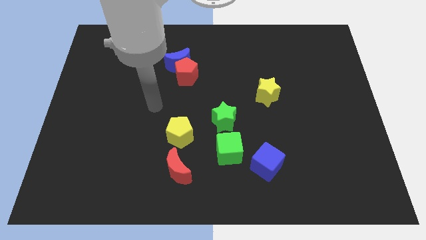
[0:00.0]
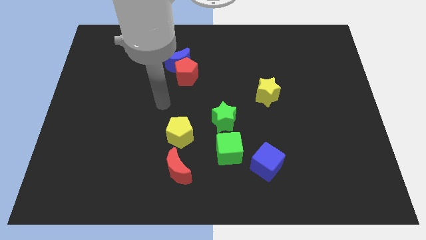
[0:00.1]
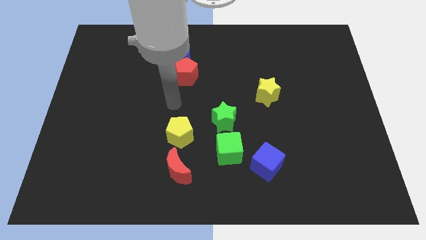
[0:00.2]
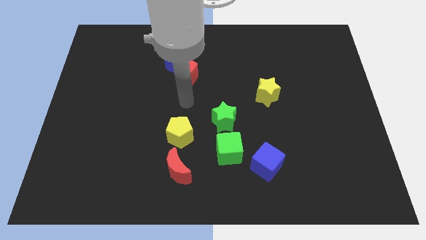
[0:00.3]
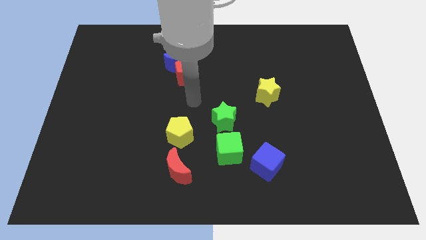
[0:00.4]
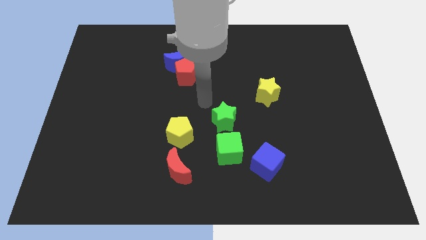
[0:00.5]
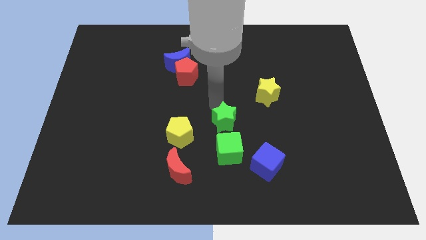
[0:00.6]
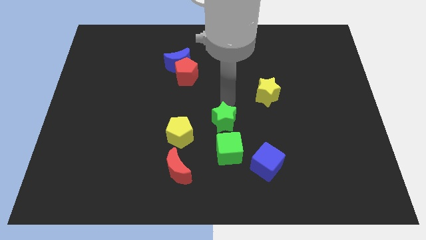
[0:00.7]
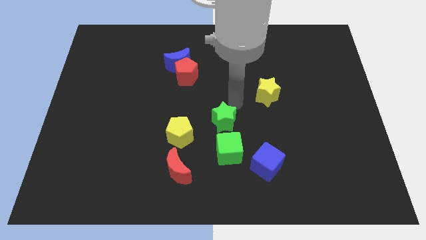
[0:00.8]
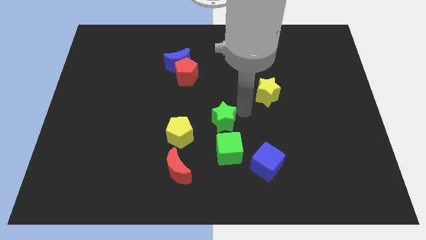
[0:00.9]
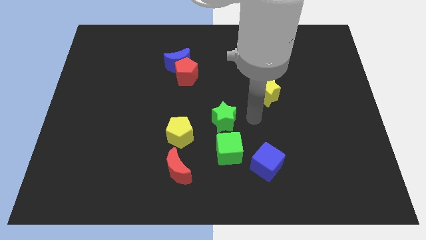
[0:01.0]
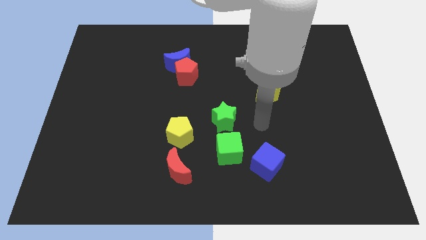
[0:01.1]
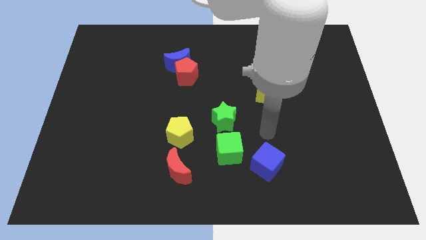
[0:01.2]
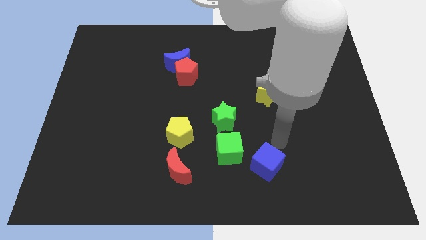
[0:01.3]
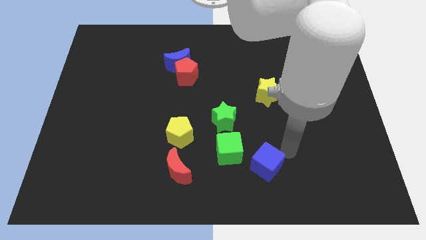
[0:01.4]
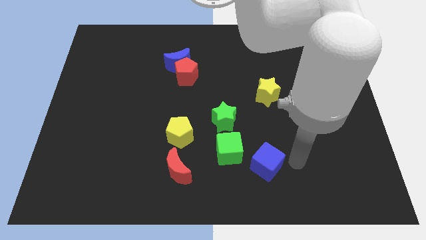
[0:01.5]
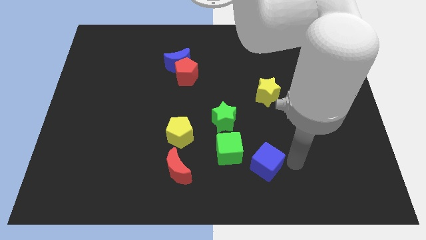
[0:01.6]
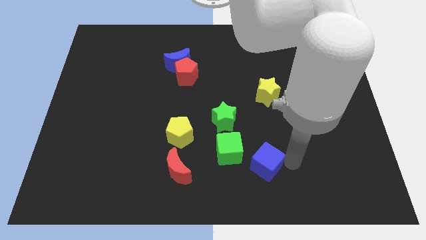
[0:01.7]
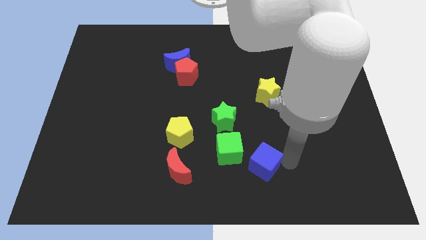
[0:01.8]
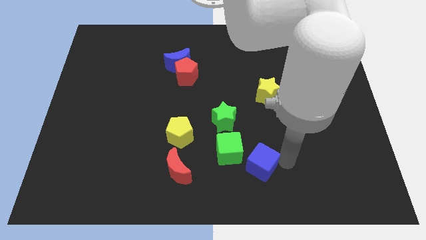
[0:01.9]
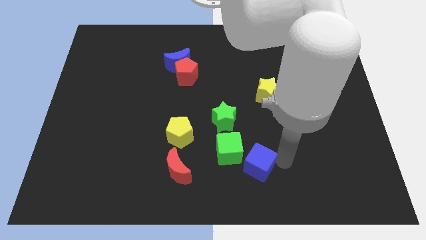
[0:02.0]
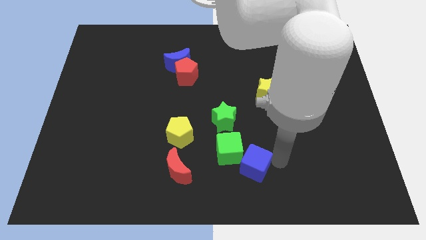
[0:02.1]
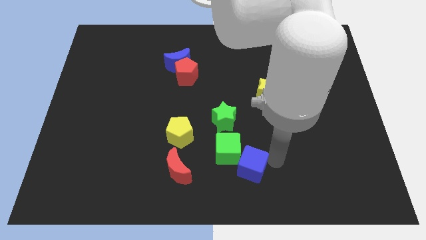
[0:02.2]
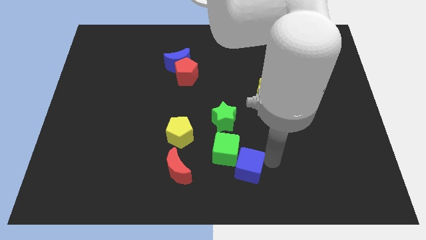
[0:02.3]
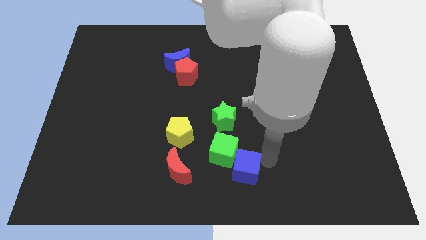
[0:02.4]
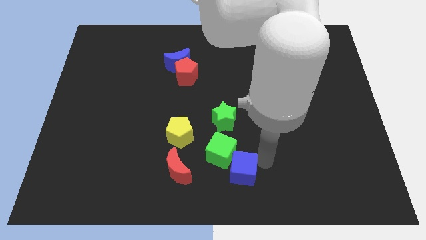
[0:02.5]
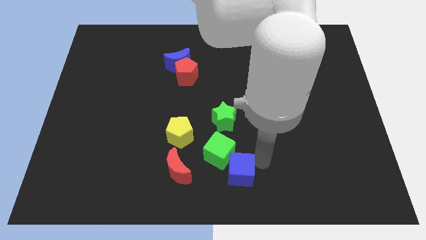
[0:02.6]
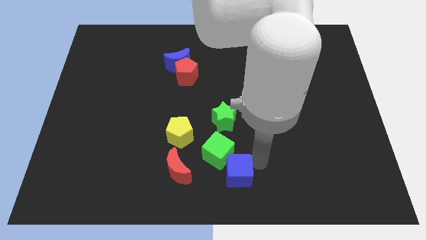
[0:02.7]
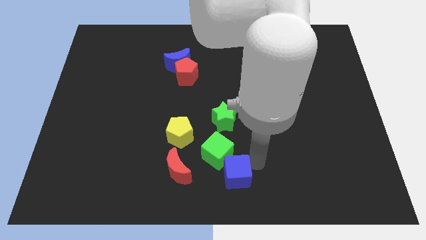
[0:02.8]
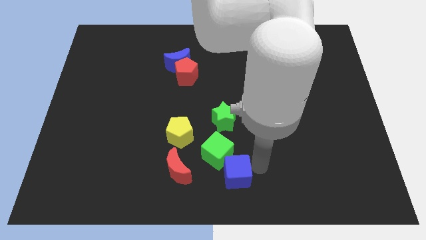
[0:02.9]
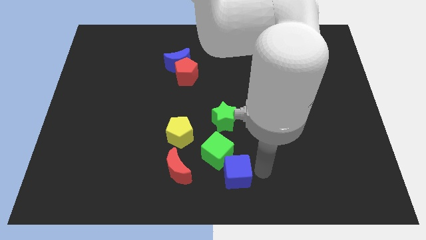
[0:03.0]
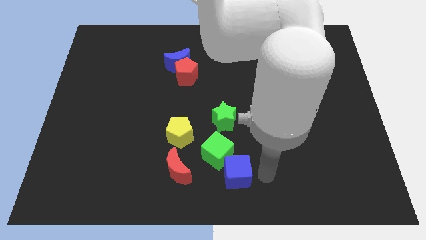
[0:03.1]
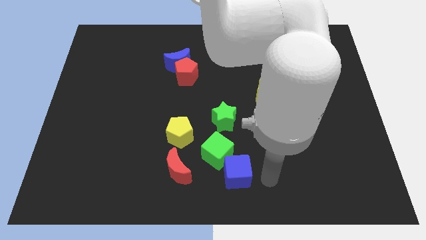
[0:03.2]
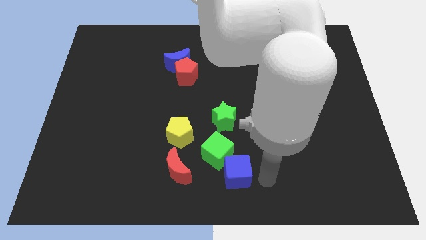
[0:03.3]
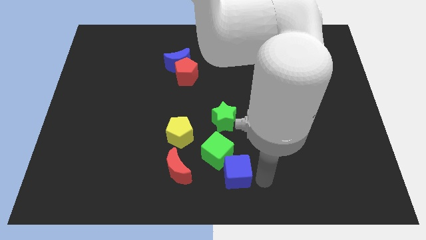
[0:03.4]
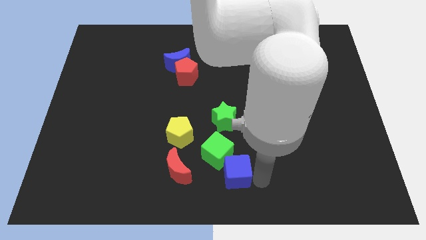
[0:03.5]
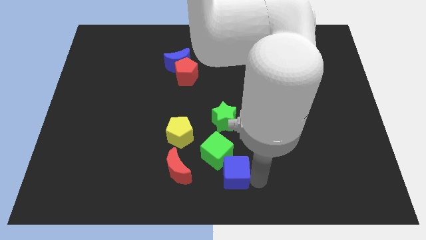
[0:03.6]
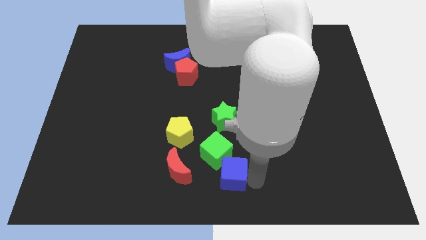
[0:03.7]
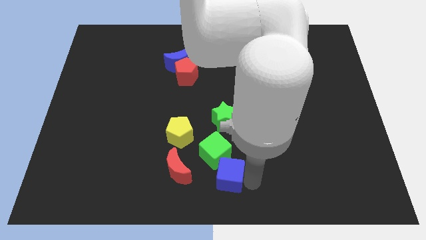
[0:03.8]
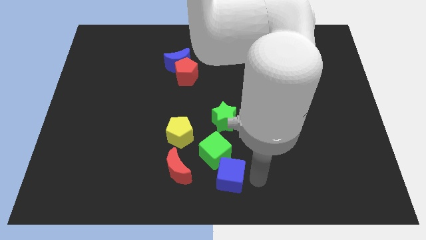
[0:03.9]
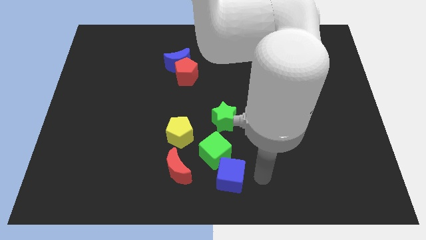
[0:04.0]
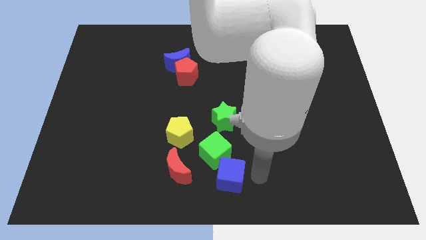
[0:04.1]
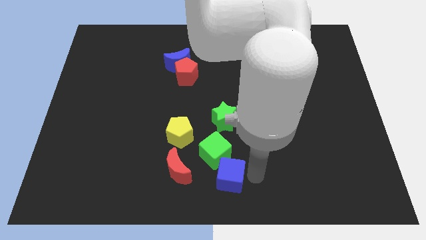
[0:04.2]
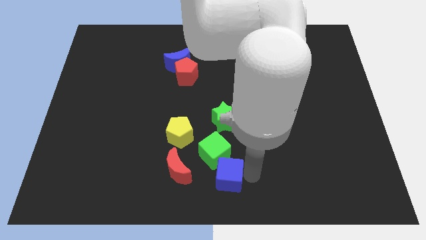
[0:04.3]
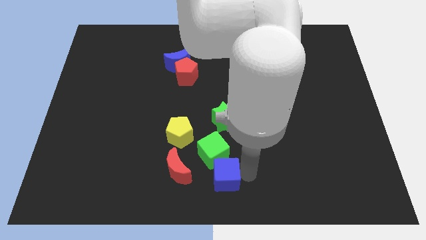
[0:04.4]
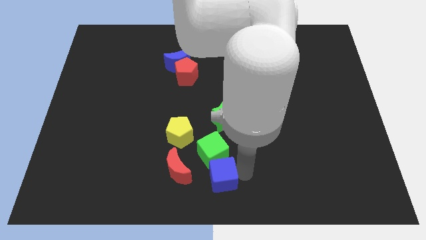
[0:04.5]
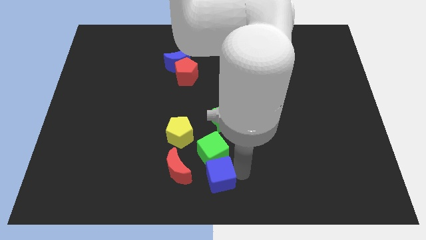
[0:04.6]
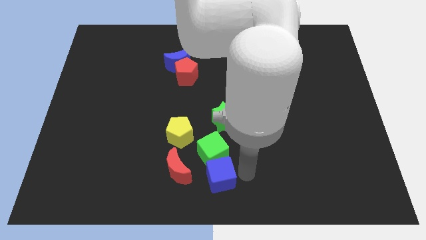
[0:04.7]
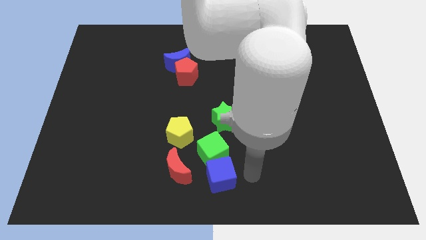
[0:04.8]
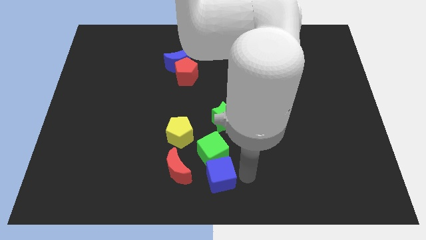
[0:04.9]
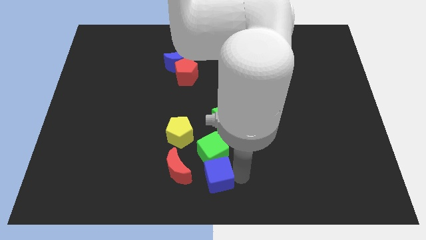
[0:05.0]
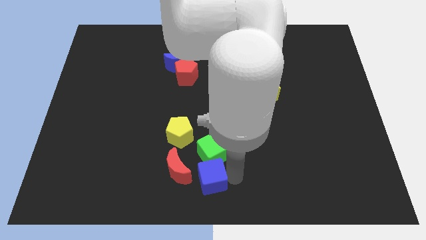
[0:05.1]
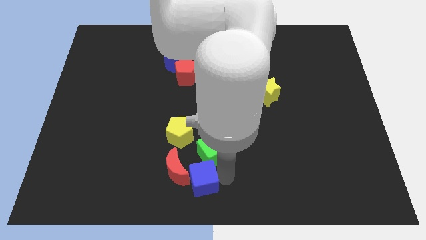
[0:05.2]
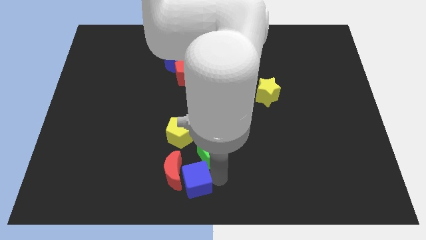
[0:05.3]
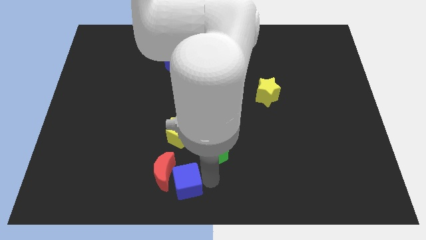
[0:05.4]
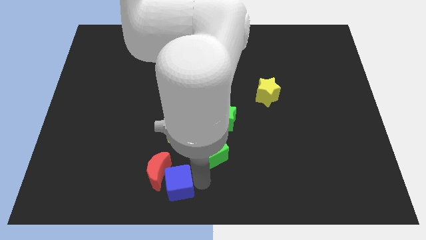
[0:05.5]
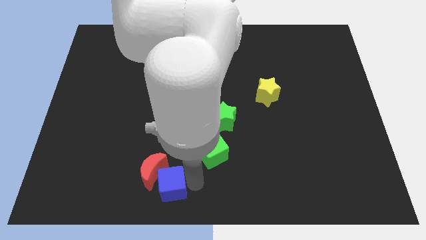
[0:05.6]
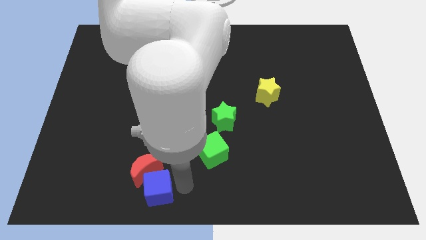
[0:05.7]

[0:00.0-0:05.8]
push the blue cube left

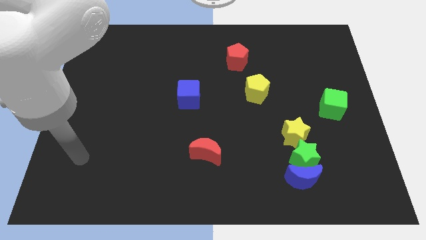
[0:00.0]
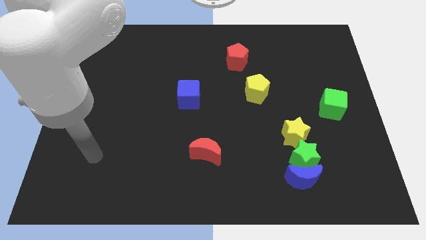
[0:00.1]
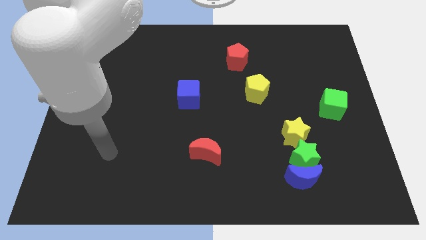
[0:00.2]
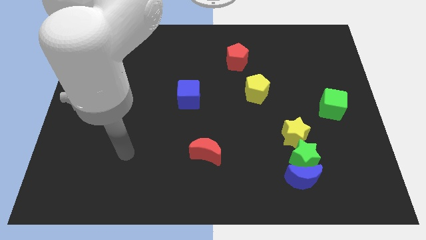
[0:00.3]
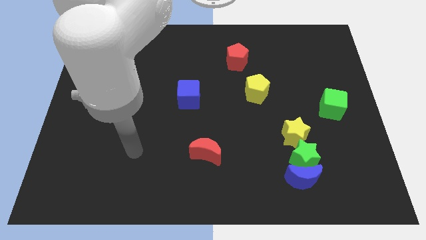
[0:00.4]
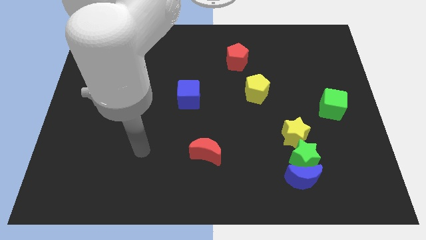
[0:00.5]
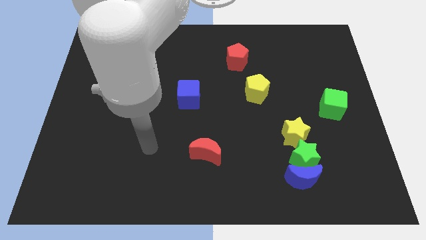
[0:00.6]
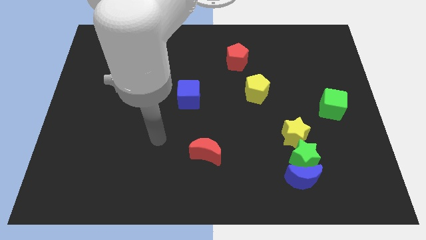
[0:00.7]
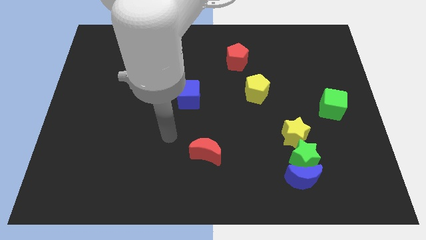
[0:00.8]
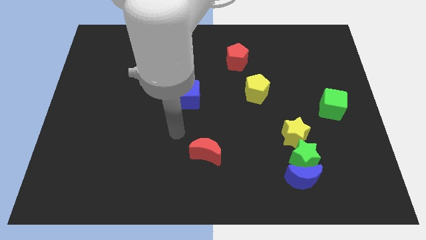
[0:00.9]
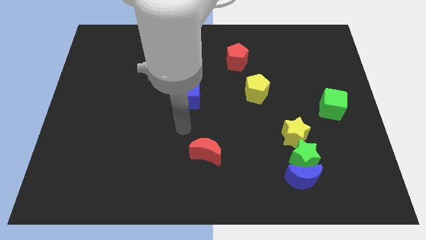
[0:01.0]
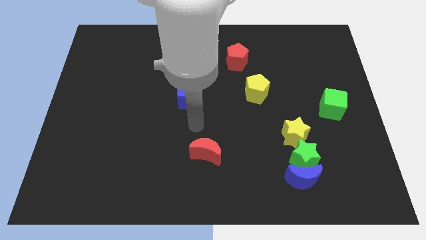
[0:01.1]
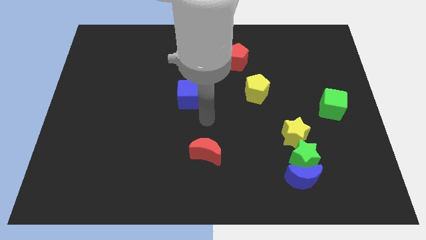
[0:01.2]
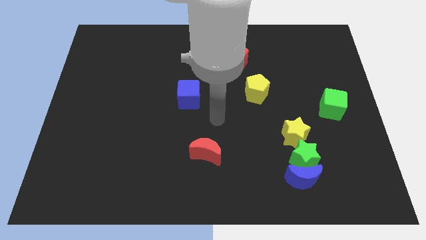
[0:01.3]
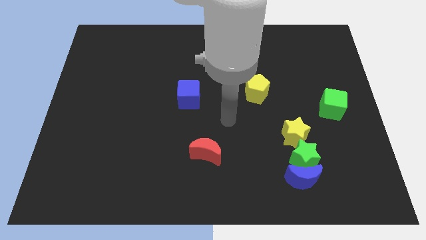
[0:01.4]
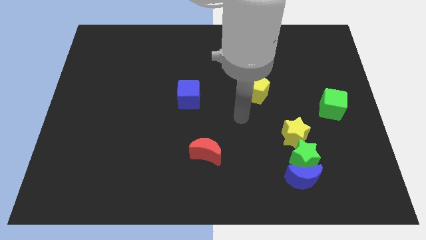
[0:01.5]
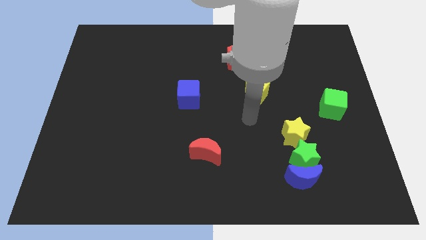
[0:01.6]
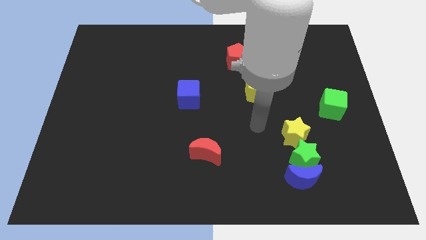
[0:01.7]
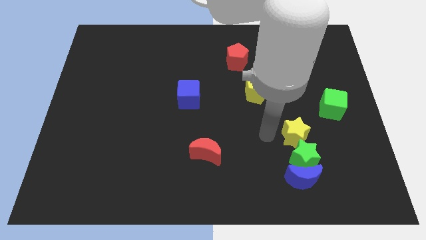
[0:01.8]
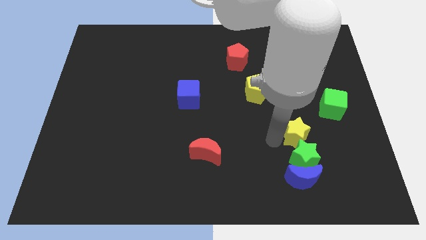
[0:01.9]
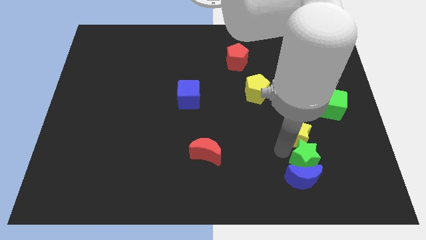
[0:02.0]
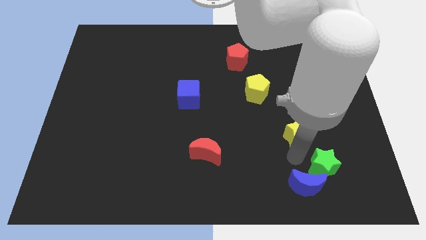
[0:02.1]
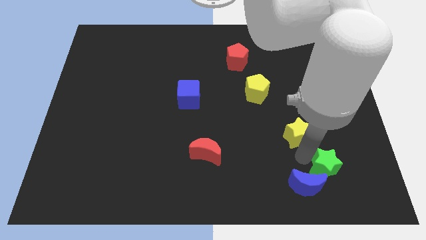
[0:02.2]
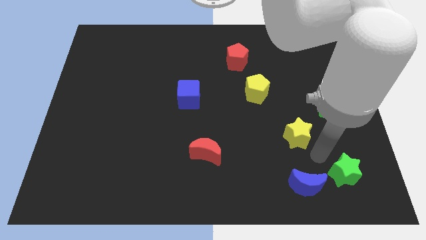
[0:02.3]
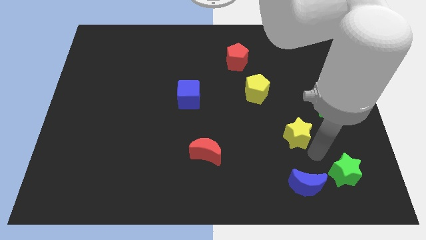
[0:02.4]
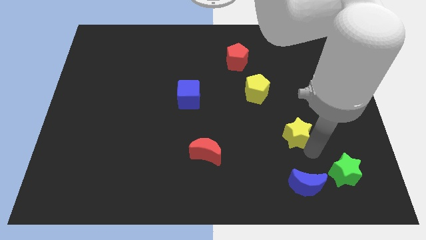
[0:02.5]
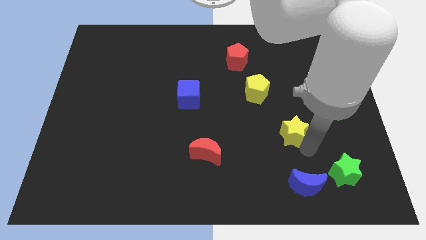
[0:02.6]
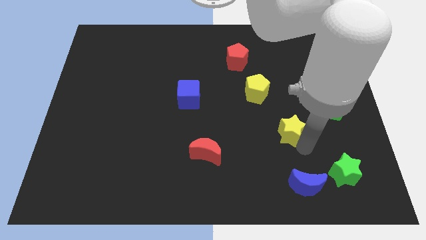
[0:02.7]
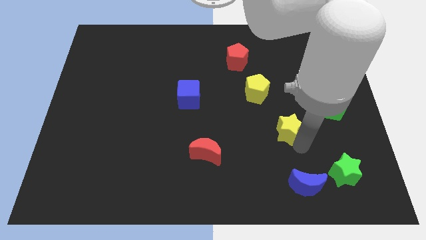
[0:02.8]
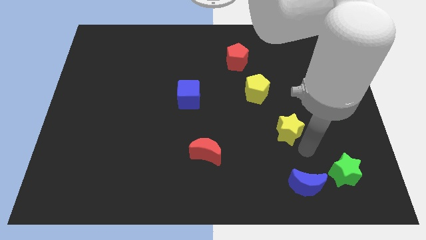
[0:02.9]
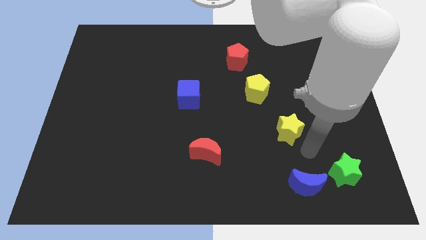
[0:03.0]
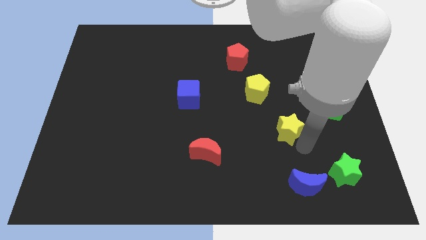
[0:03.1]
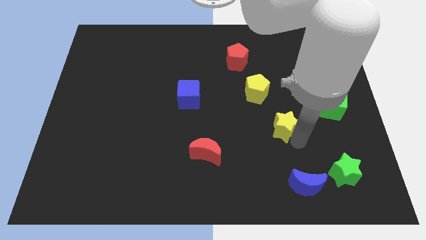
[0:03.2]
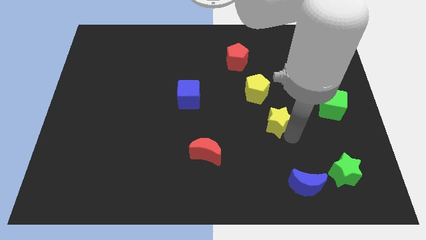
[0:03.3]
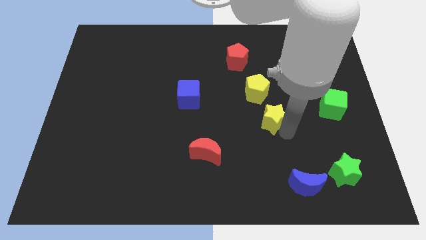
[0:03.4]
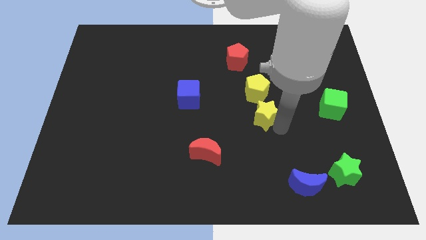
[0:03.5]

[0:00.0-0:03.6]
slightly move the yellow star up and left
